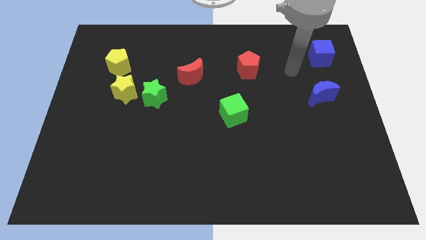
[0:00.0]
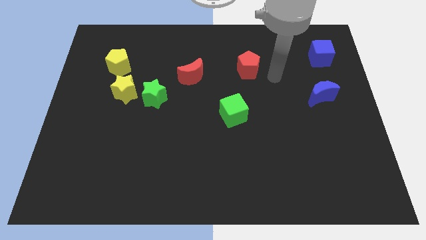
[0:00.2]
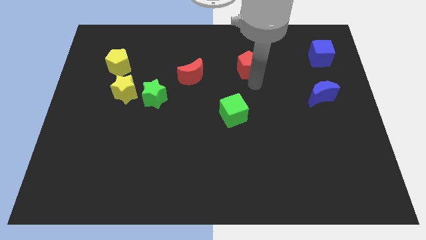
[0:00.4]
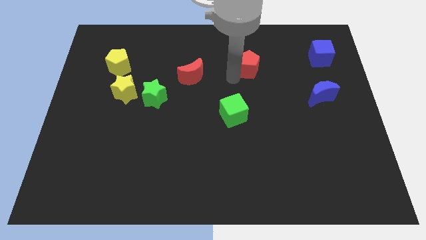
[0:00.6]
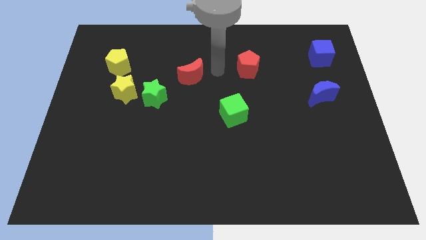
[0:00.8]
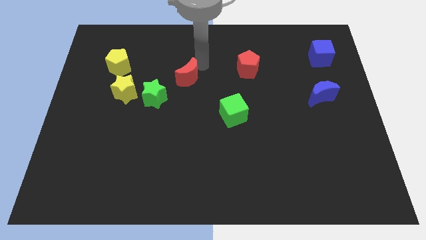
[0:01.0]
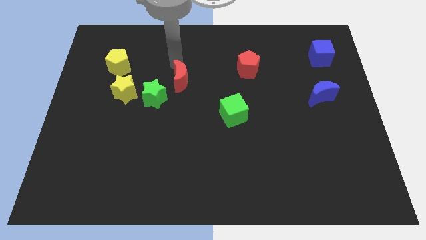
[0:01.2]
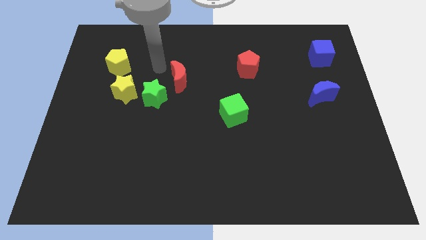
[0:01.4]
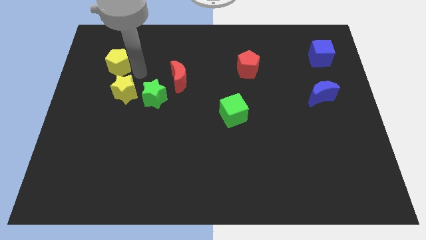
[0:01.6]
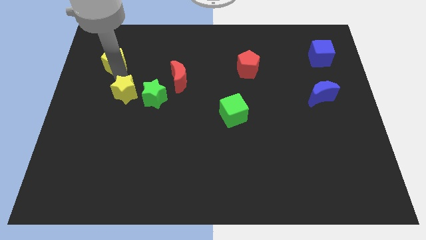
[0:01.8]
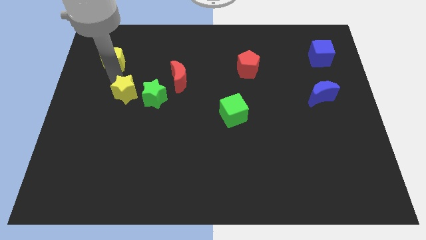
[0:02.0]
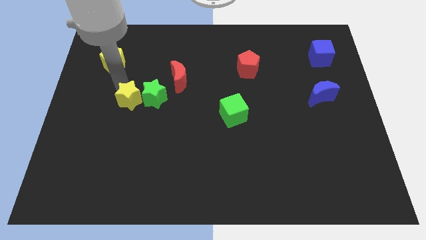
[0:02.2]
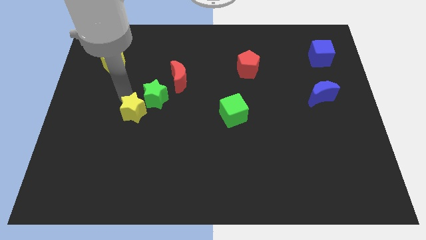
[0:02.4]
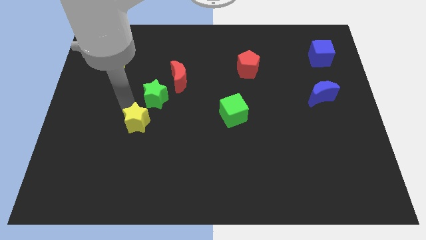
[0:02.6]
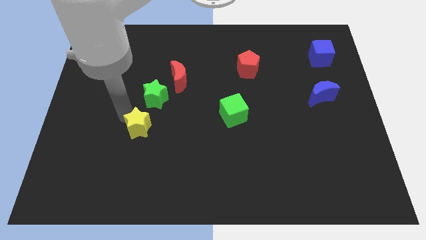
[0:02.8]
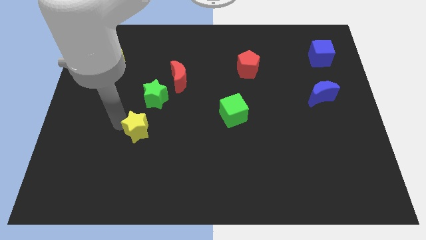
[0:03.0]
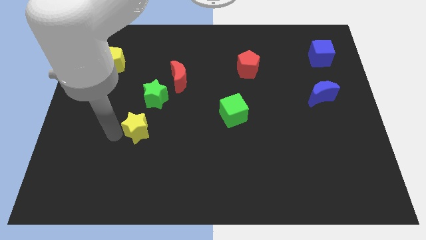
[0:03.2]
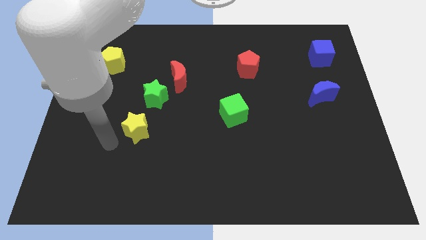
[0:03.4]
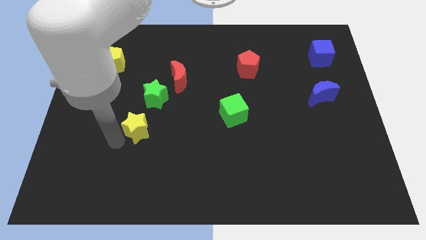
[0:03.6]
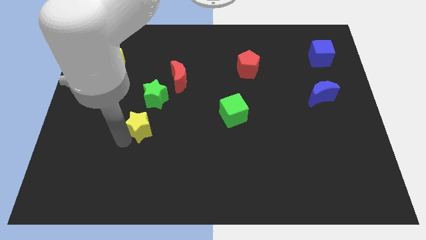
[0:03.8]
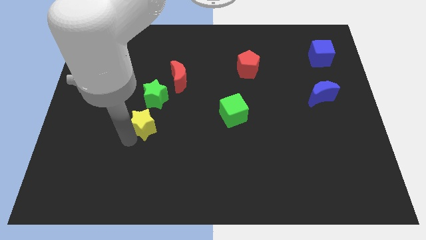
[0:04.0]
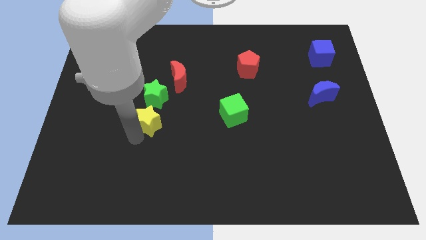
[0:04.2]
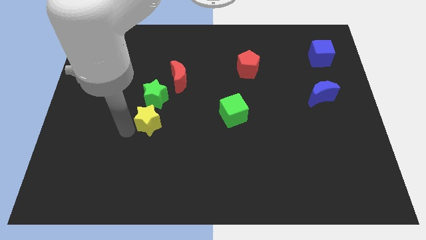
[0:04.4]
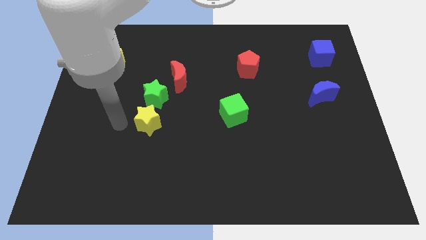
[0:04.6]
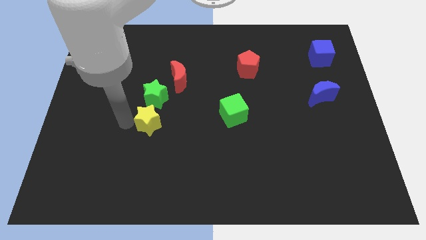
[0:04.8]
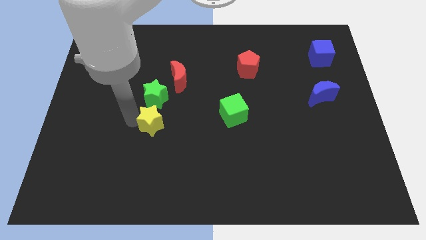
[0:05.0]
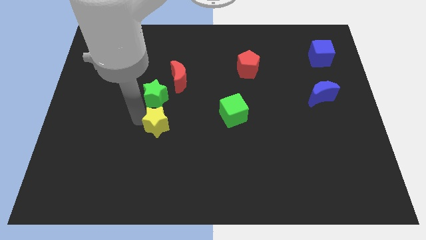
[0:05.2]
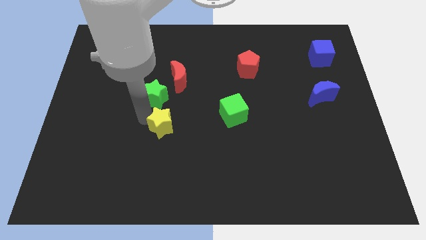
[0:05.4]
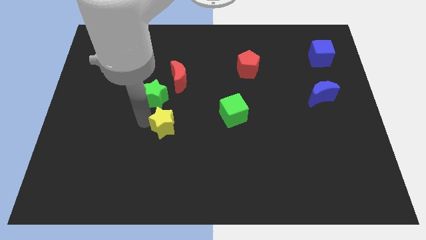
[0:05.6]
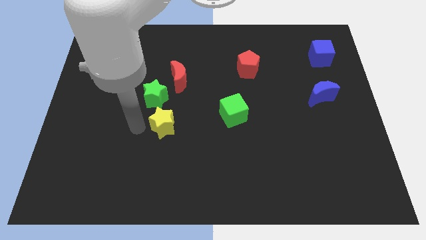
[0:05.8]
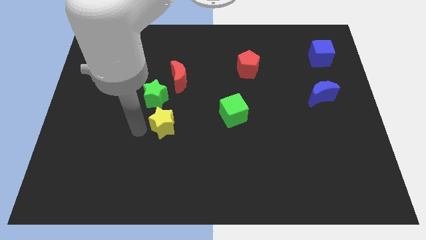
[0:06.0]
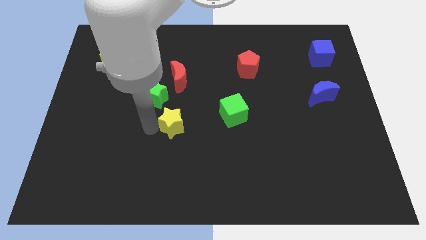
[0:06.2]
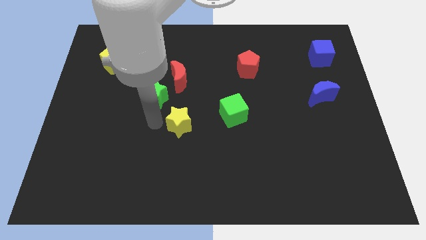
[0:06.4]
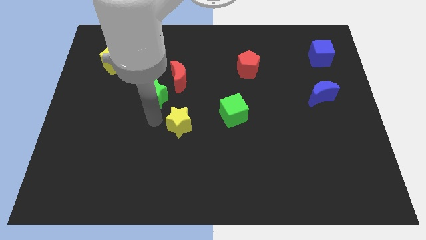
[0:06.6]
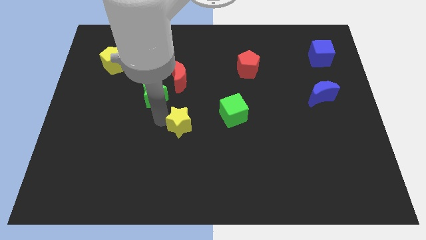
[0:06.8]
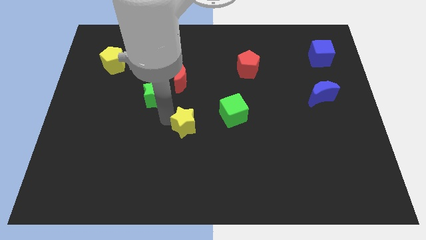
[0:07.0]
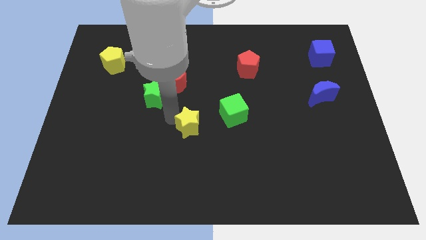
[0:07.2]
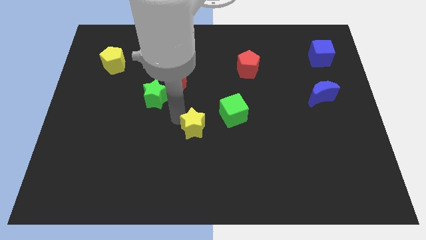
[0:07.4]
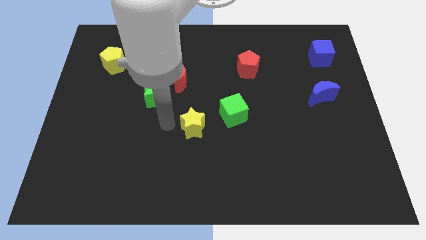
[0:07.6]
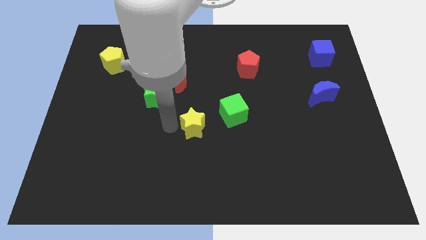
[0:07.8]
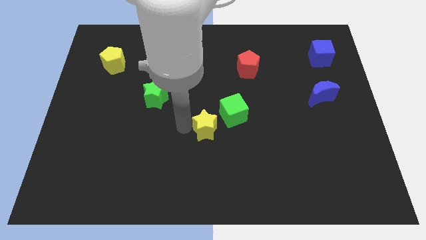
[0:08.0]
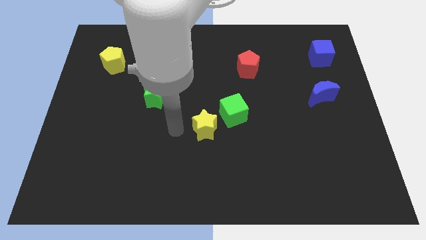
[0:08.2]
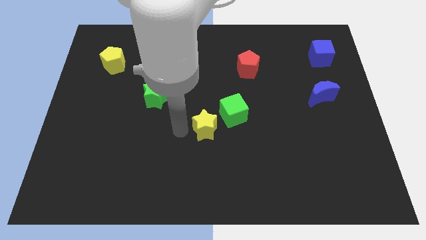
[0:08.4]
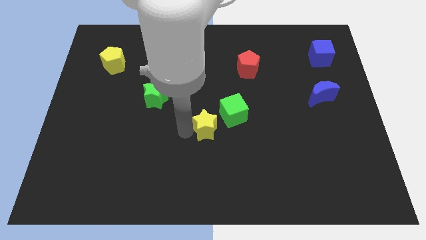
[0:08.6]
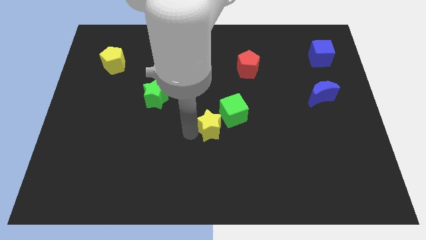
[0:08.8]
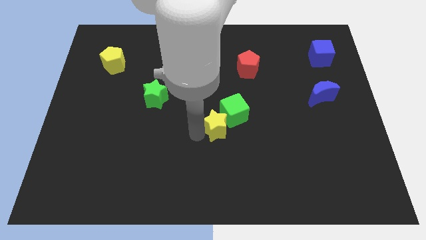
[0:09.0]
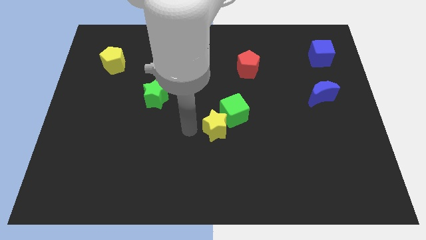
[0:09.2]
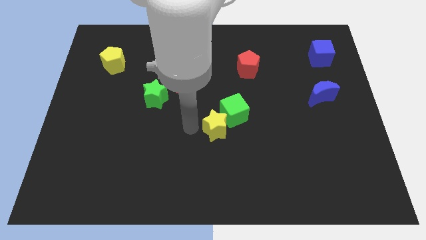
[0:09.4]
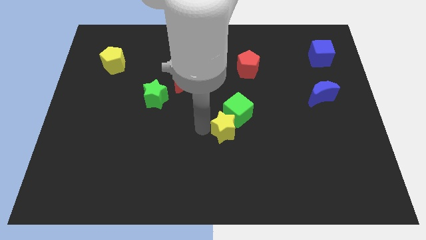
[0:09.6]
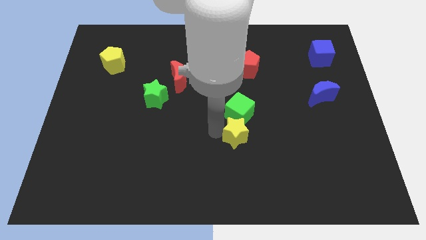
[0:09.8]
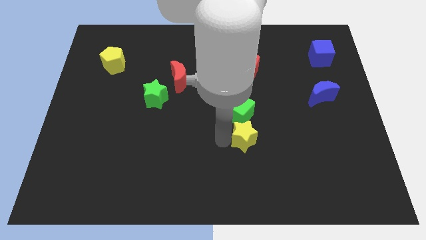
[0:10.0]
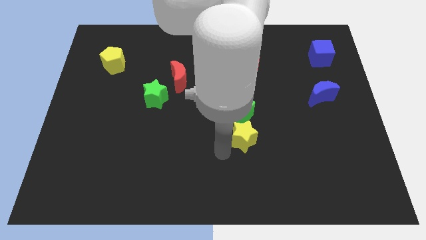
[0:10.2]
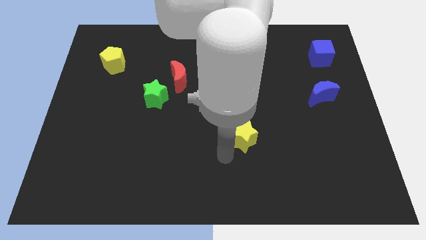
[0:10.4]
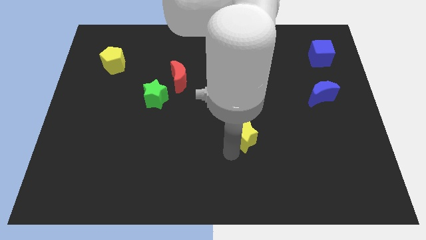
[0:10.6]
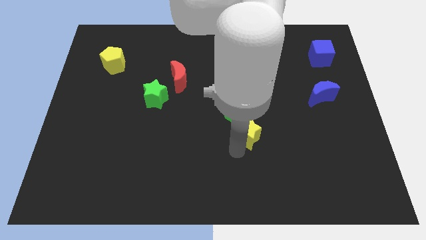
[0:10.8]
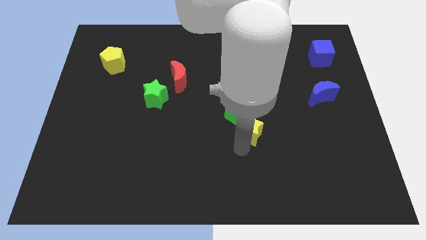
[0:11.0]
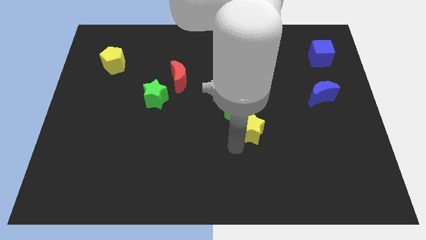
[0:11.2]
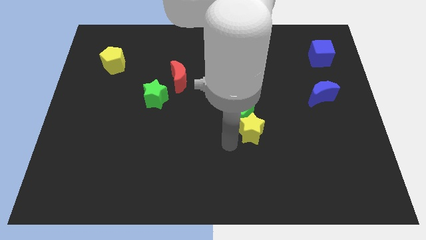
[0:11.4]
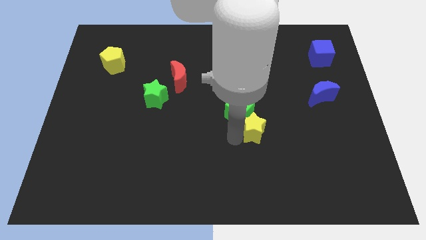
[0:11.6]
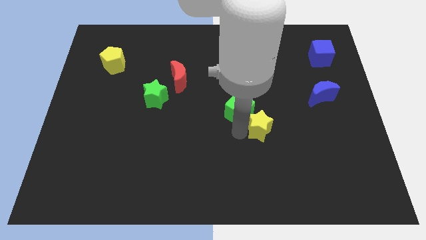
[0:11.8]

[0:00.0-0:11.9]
push the yellow star to the right of the green cube
